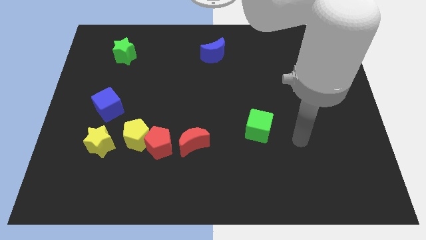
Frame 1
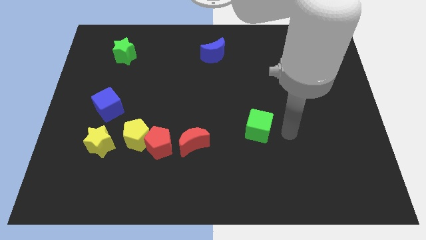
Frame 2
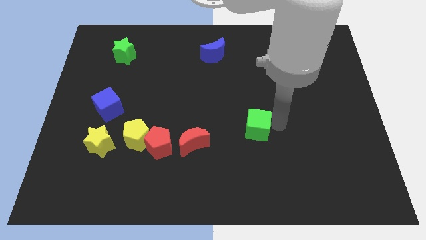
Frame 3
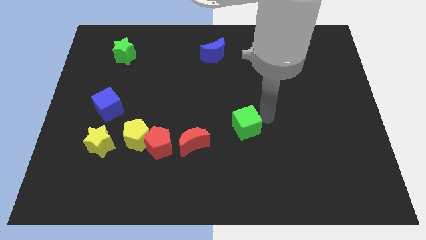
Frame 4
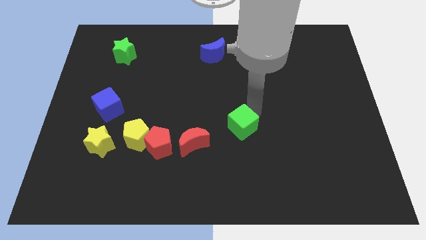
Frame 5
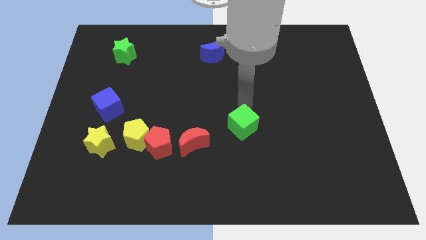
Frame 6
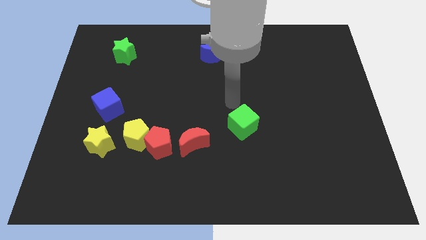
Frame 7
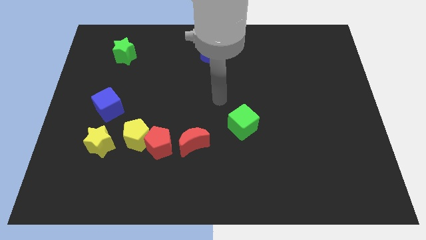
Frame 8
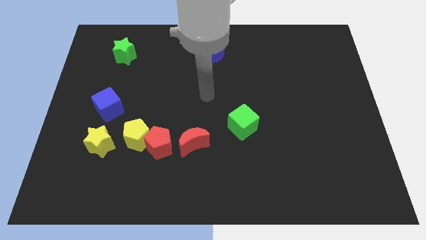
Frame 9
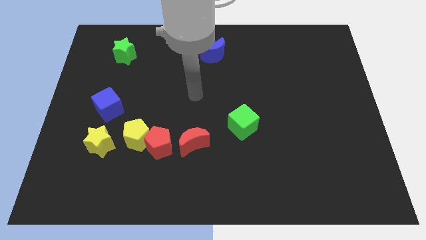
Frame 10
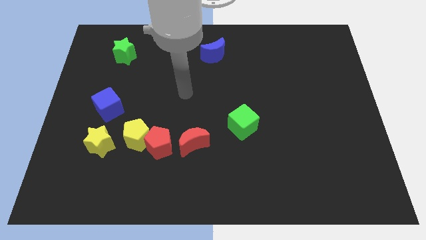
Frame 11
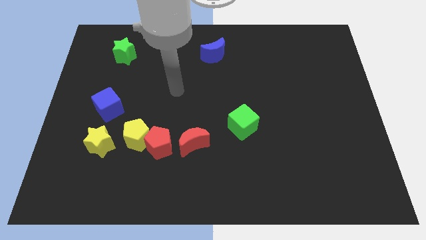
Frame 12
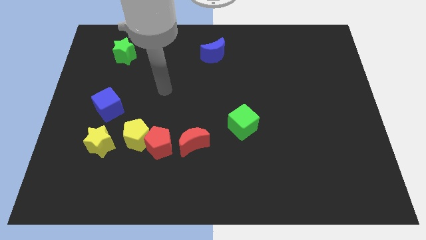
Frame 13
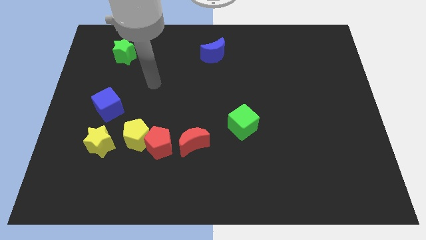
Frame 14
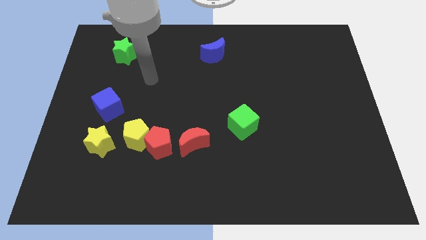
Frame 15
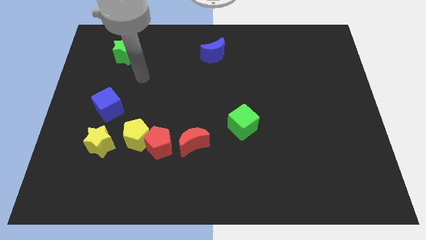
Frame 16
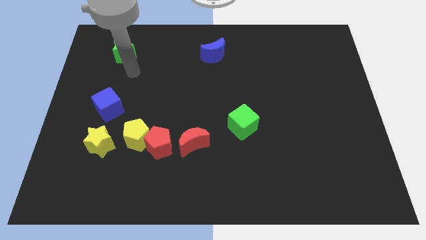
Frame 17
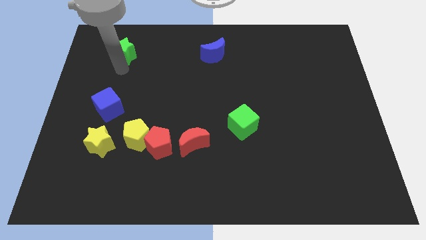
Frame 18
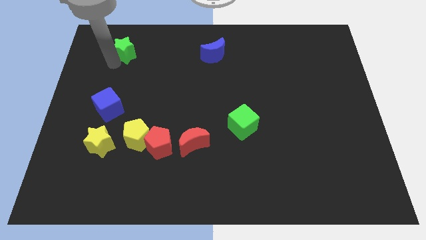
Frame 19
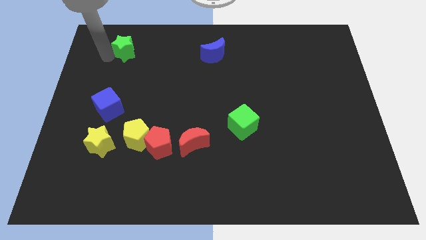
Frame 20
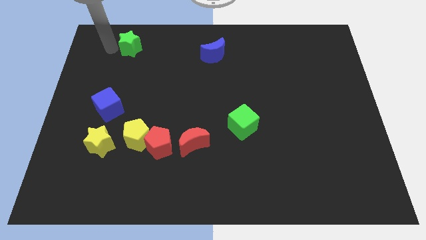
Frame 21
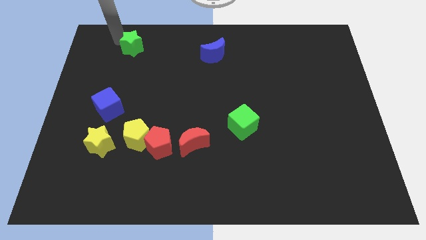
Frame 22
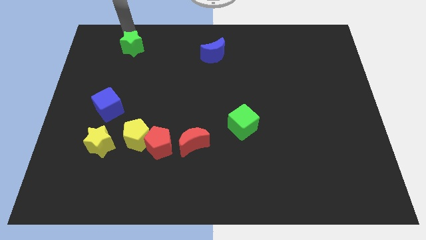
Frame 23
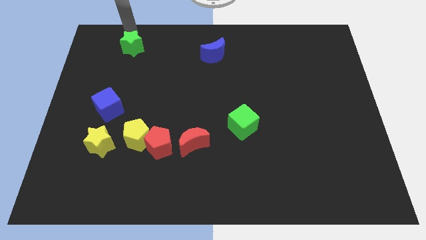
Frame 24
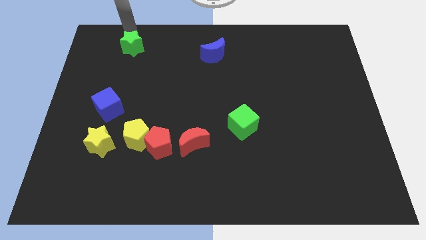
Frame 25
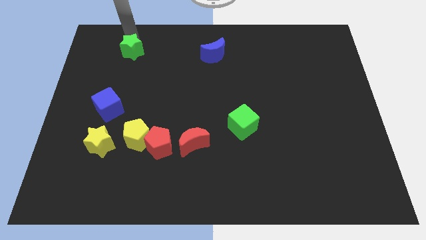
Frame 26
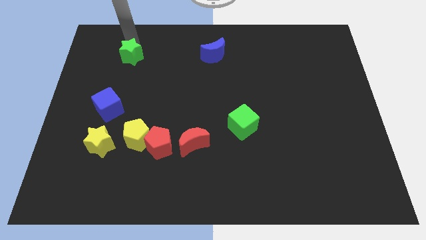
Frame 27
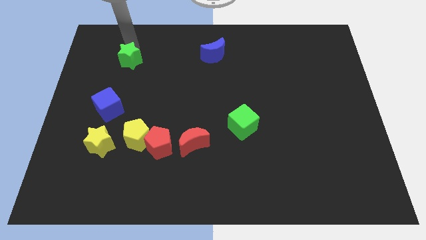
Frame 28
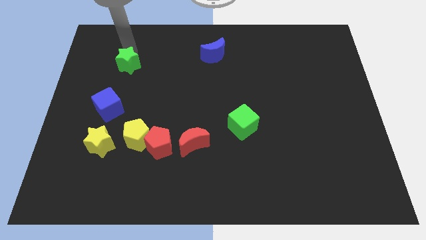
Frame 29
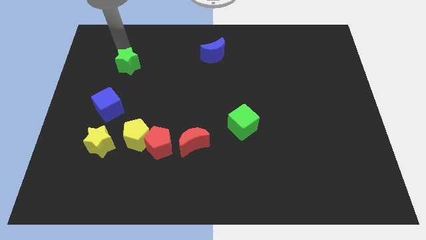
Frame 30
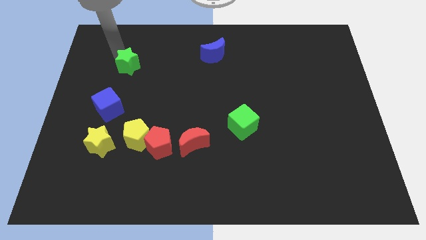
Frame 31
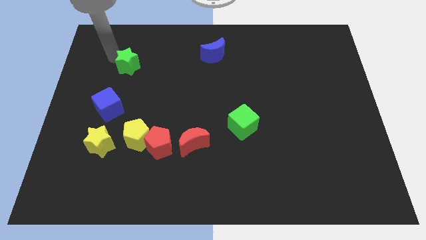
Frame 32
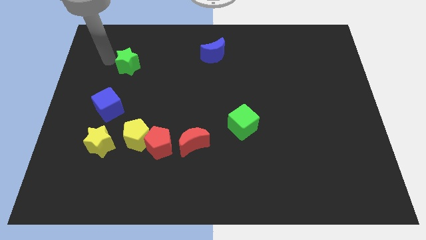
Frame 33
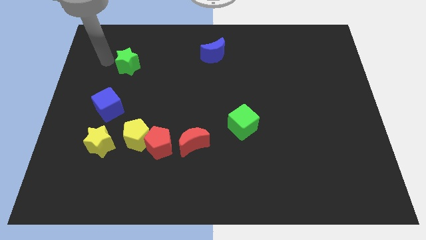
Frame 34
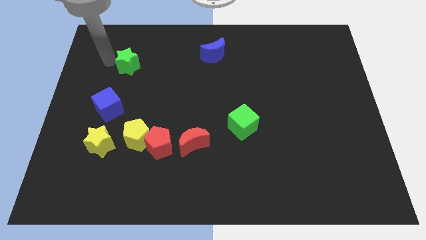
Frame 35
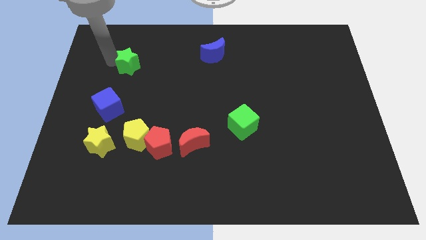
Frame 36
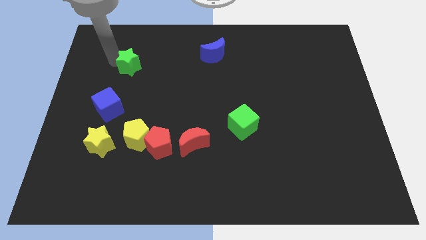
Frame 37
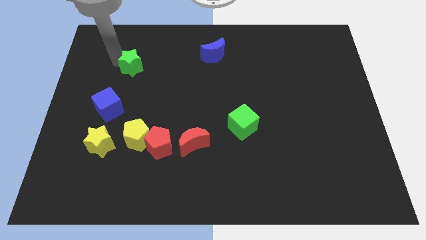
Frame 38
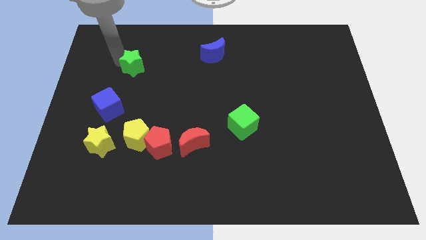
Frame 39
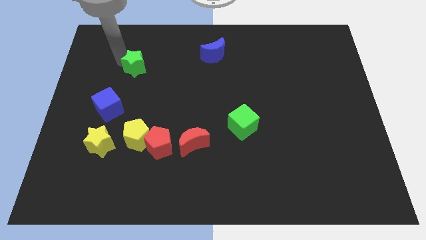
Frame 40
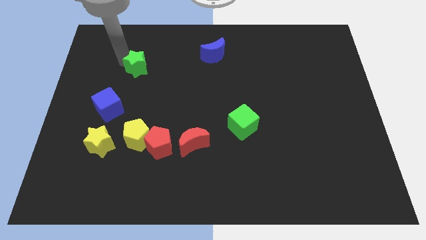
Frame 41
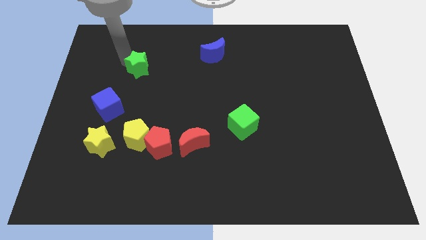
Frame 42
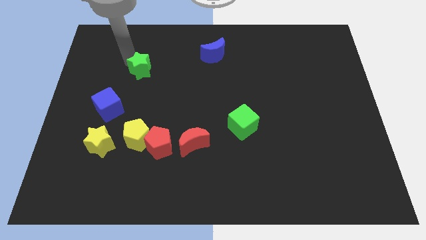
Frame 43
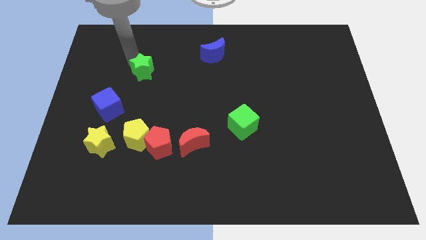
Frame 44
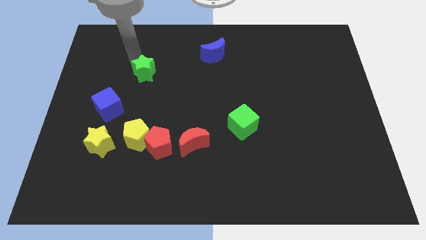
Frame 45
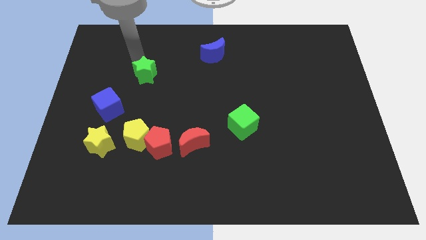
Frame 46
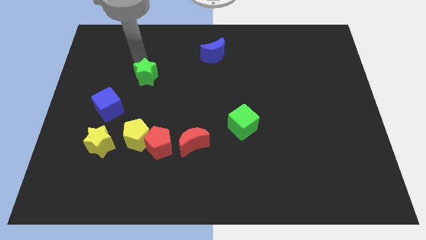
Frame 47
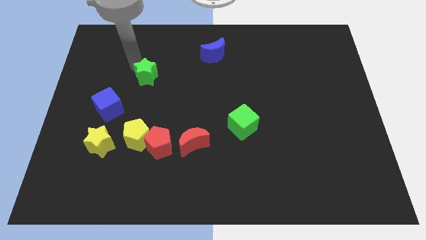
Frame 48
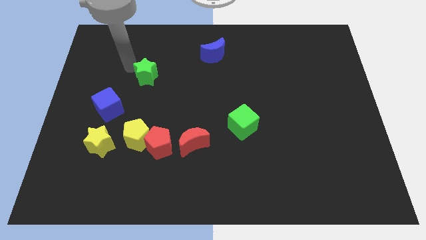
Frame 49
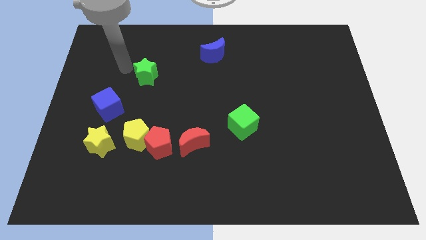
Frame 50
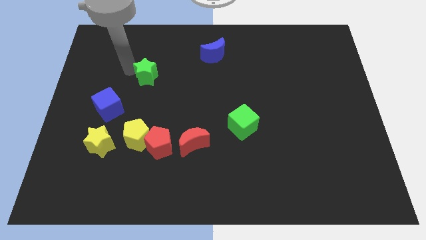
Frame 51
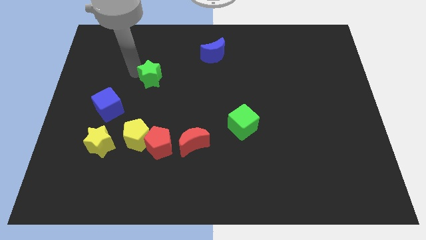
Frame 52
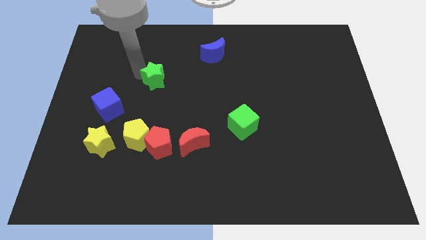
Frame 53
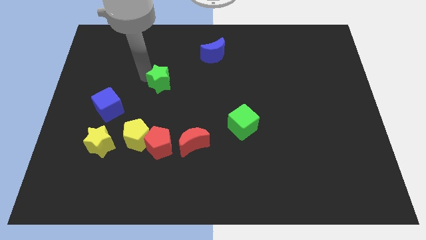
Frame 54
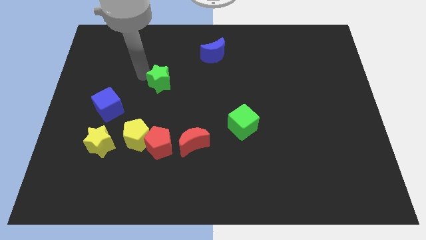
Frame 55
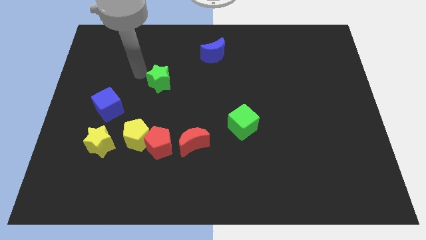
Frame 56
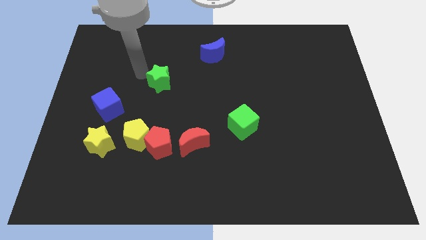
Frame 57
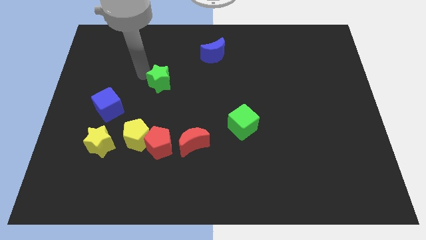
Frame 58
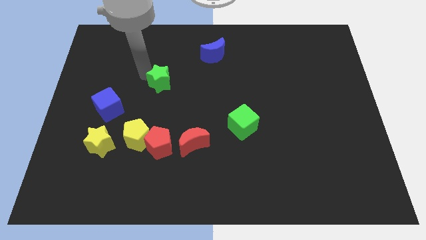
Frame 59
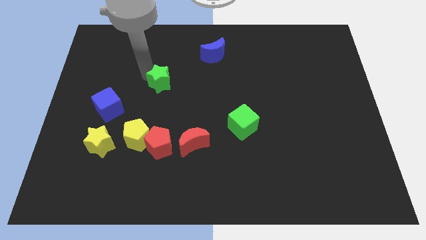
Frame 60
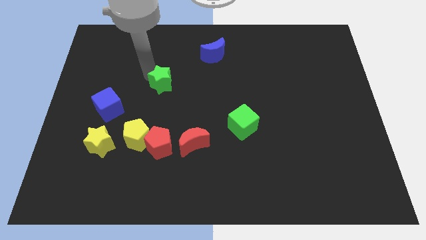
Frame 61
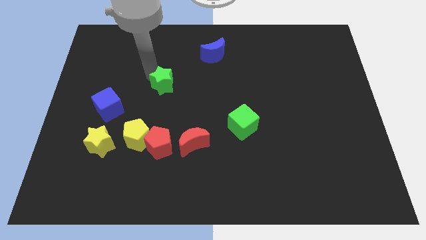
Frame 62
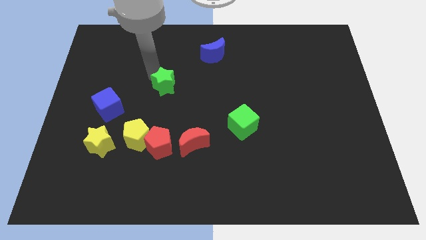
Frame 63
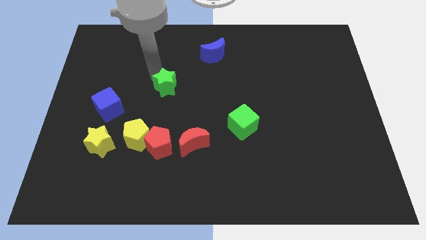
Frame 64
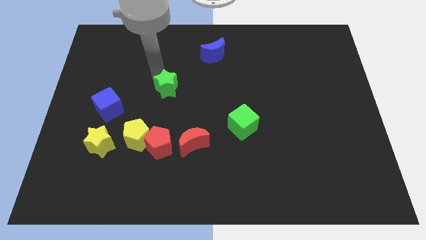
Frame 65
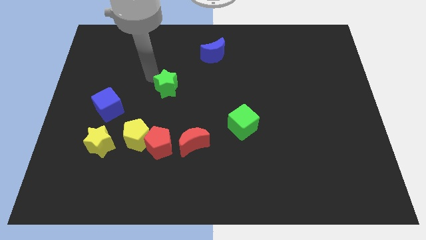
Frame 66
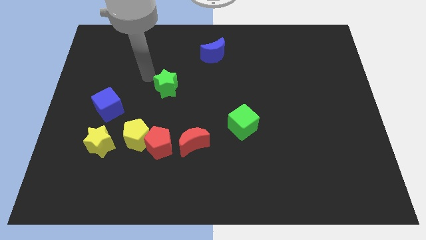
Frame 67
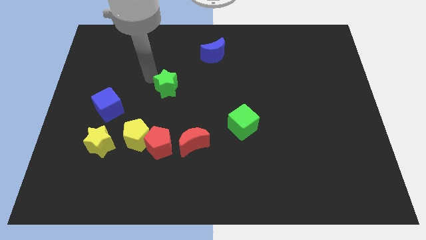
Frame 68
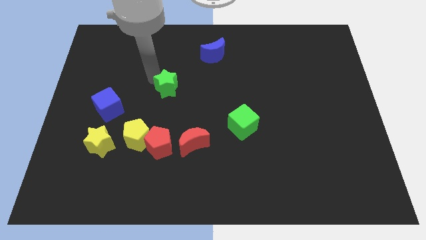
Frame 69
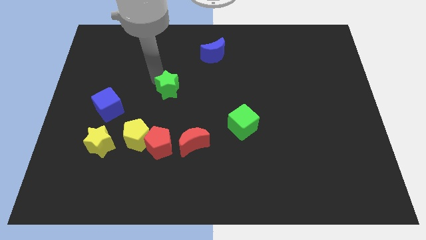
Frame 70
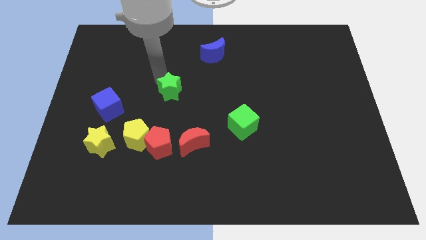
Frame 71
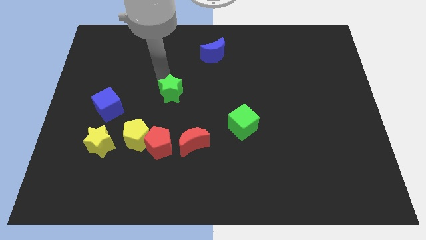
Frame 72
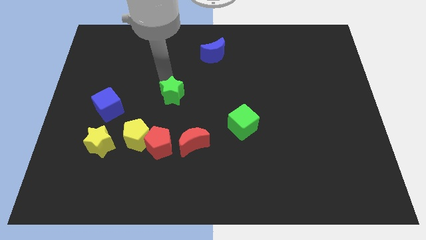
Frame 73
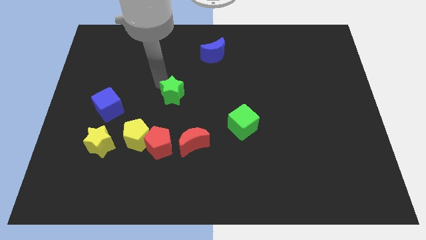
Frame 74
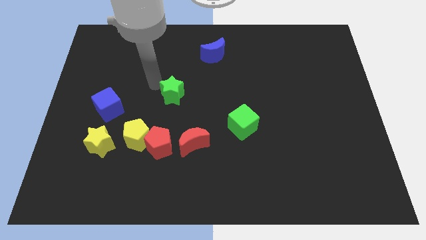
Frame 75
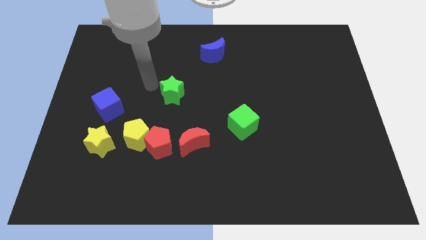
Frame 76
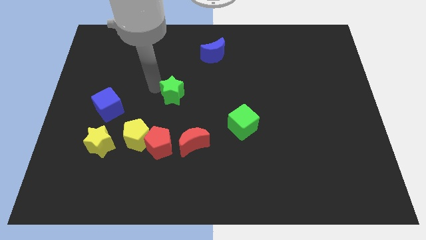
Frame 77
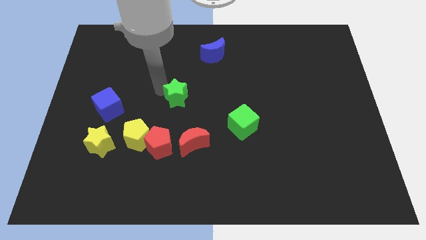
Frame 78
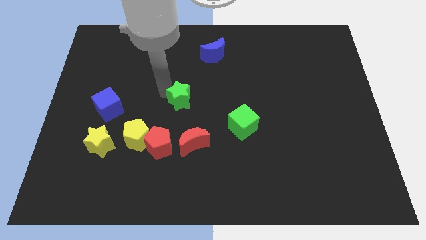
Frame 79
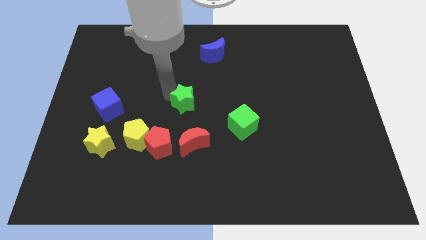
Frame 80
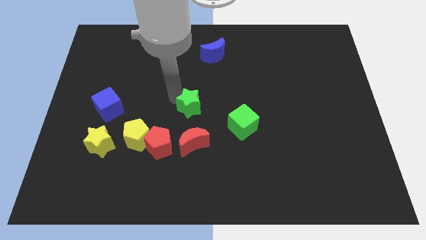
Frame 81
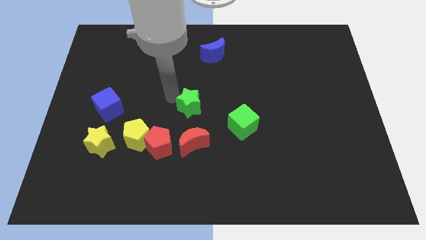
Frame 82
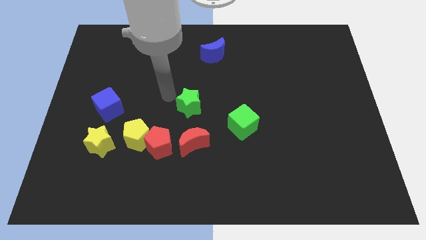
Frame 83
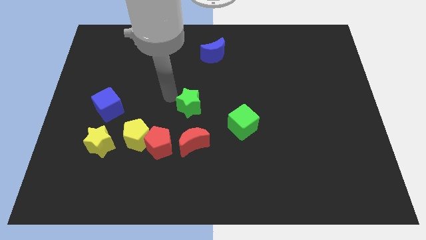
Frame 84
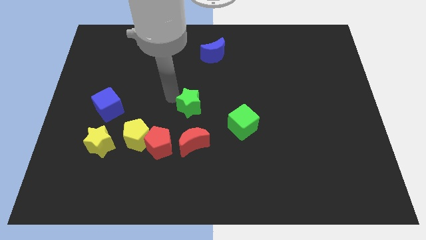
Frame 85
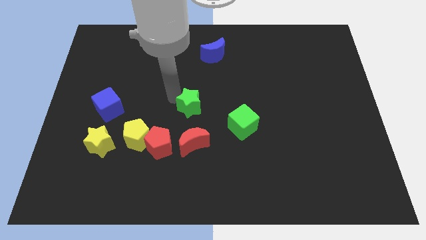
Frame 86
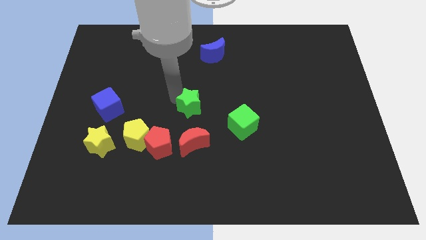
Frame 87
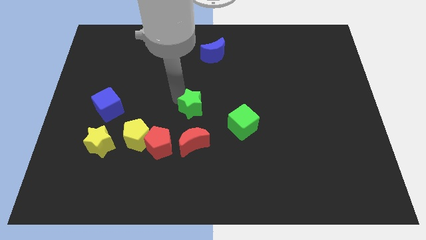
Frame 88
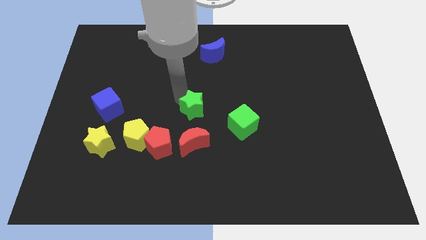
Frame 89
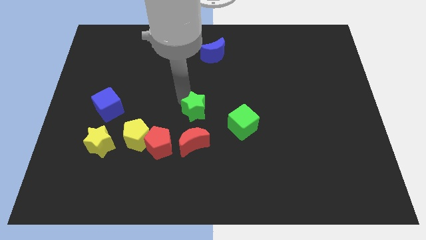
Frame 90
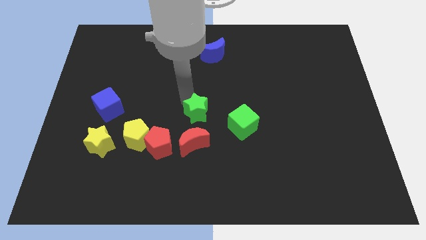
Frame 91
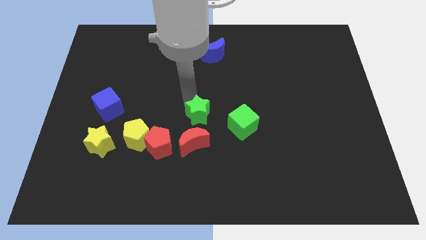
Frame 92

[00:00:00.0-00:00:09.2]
move the green star to the top right of the red moon
